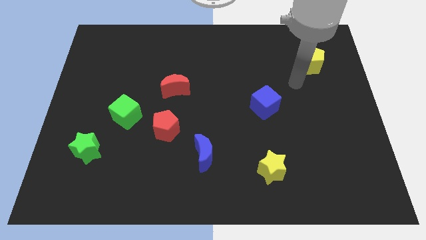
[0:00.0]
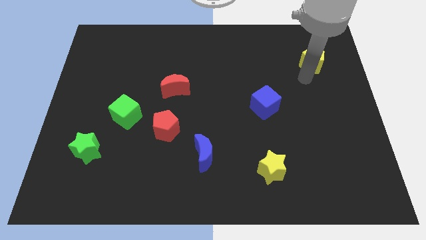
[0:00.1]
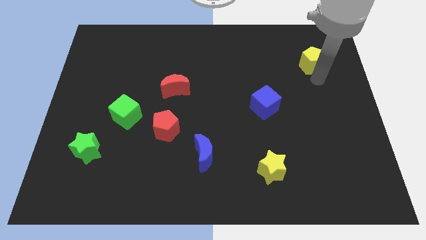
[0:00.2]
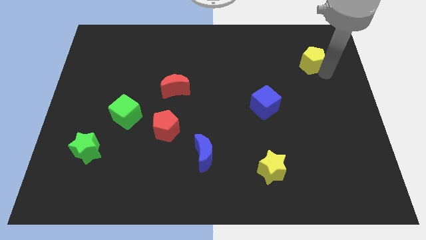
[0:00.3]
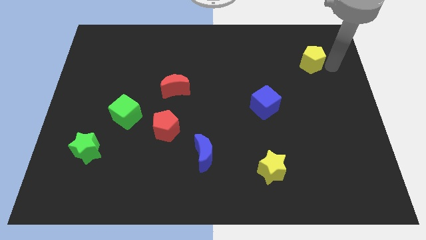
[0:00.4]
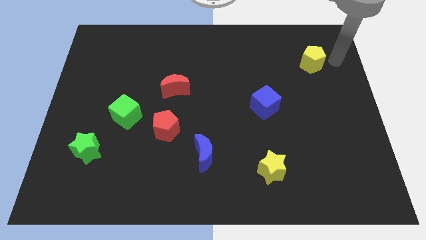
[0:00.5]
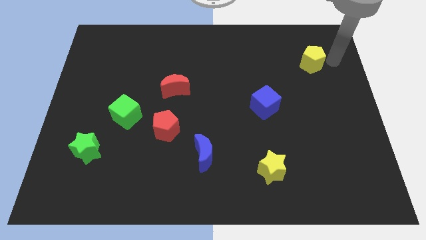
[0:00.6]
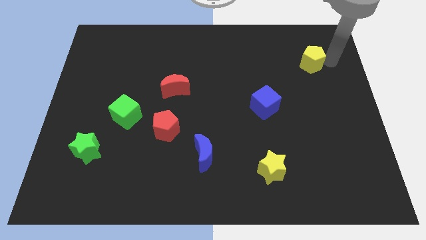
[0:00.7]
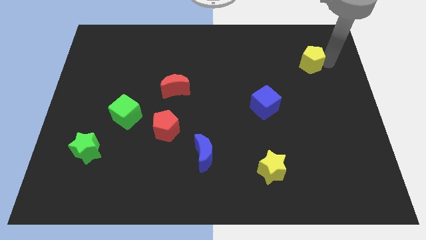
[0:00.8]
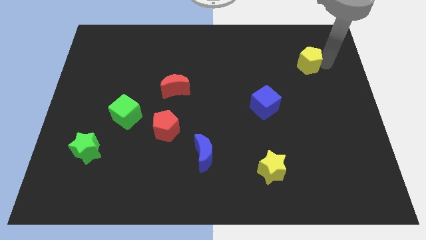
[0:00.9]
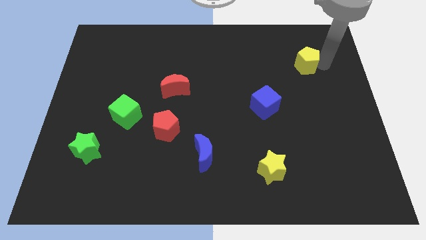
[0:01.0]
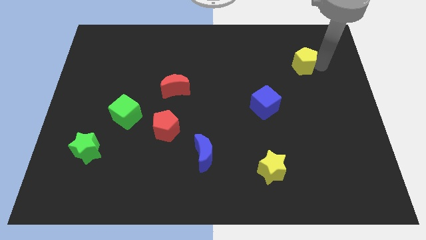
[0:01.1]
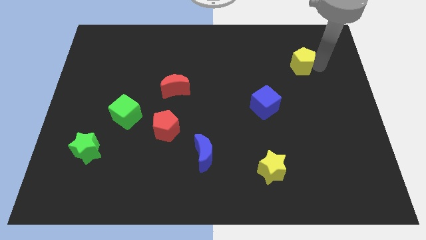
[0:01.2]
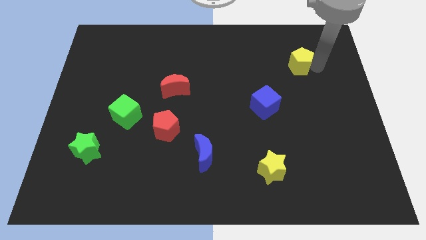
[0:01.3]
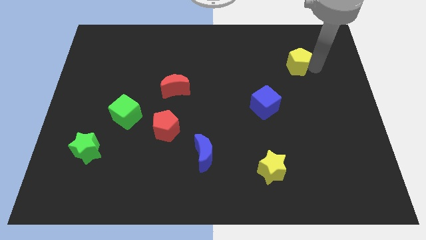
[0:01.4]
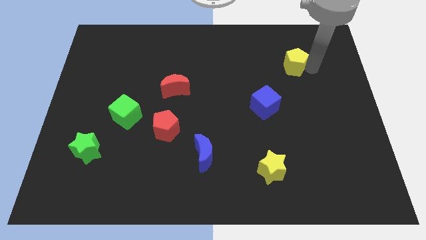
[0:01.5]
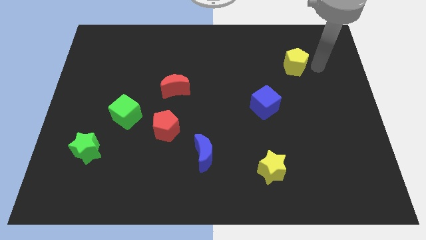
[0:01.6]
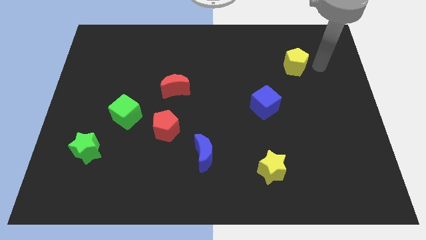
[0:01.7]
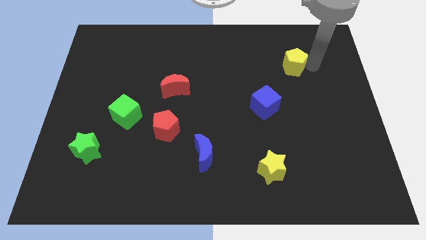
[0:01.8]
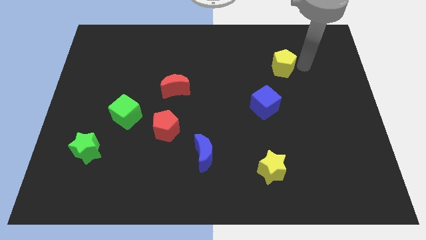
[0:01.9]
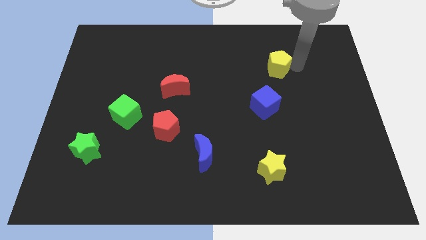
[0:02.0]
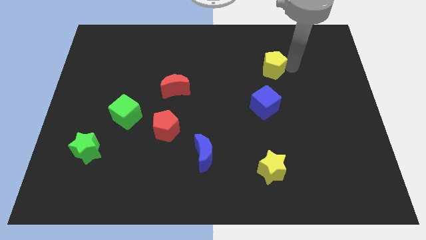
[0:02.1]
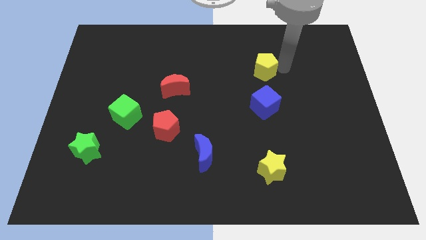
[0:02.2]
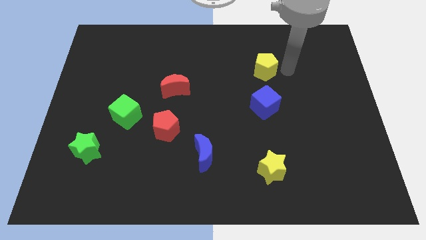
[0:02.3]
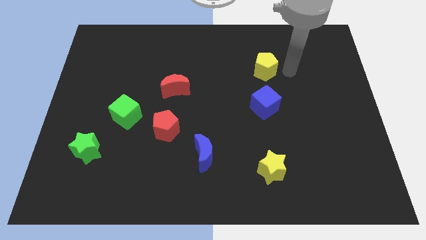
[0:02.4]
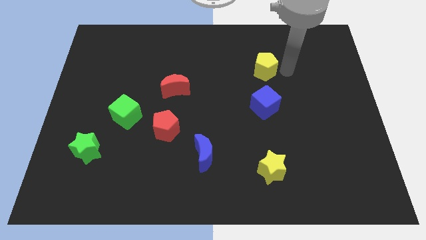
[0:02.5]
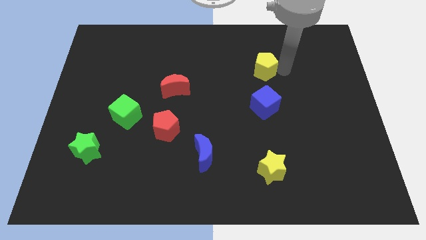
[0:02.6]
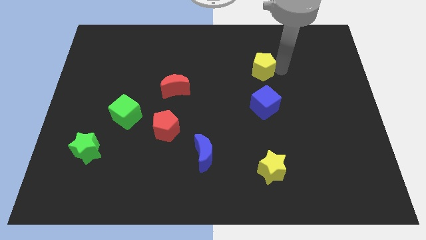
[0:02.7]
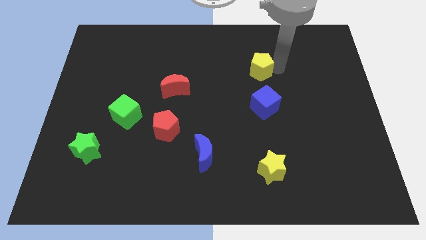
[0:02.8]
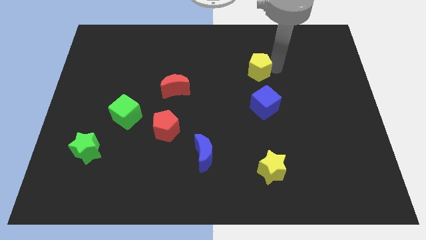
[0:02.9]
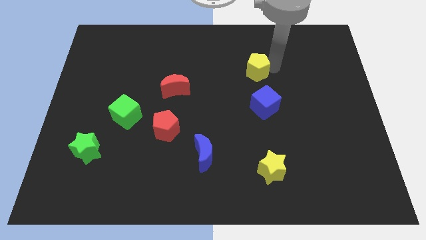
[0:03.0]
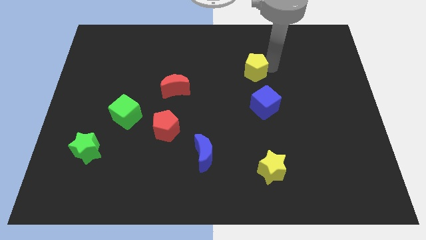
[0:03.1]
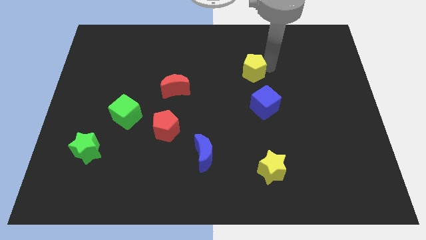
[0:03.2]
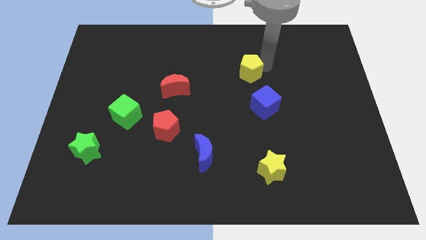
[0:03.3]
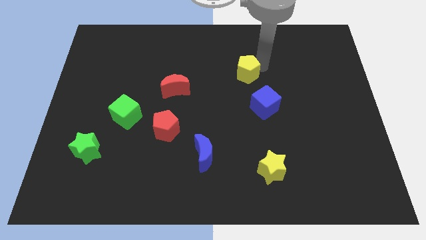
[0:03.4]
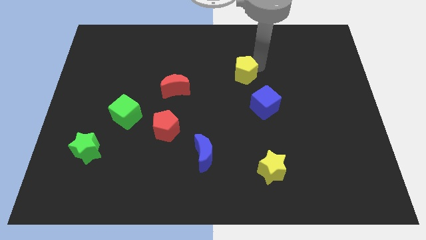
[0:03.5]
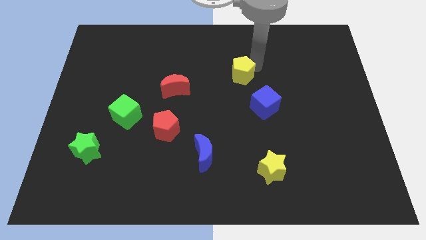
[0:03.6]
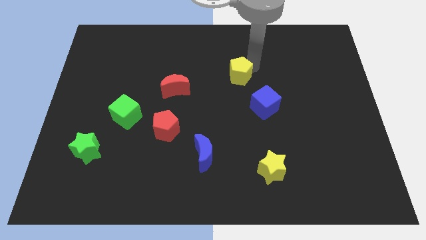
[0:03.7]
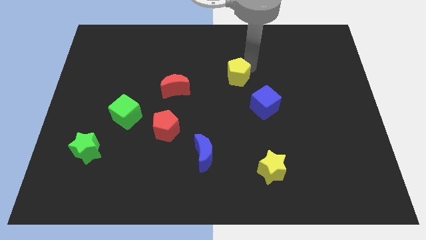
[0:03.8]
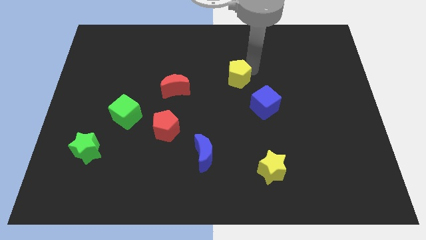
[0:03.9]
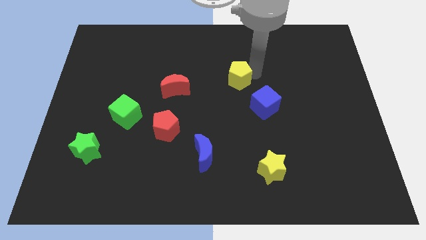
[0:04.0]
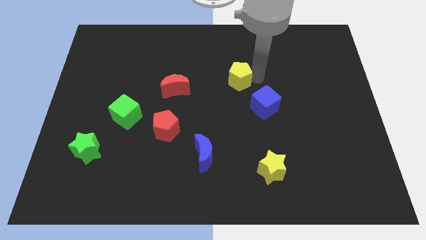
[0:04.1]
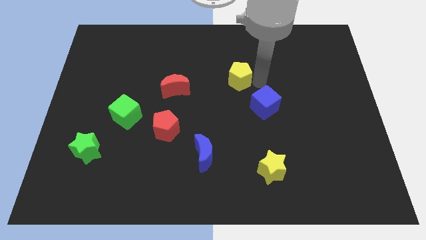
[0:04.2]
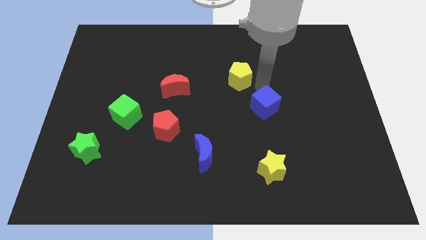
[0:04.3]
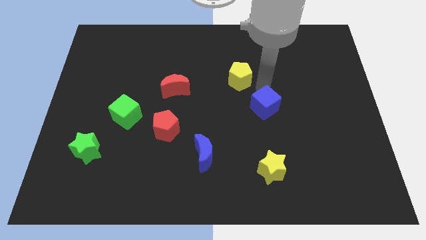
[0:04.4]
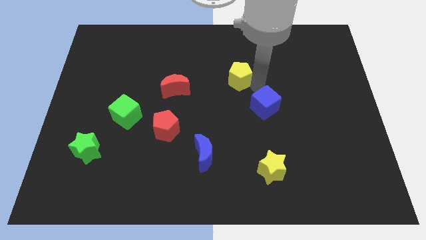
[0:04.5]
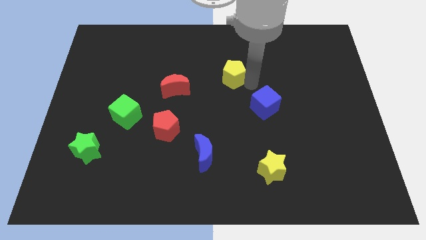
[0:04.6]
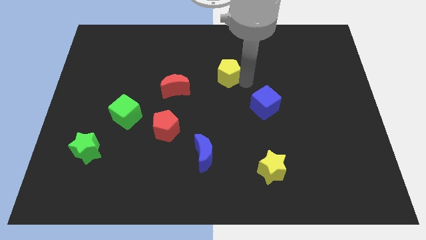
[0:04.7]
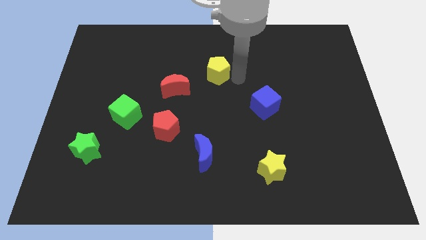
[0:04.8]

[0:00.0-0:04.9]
push the yellow pentagon to the top right side of the red moon

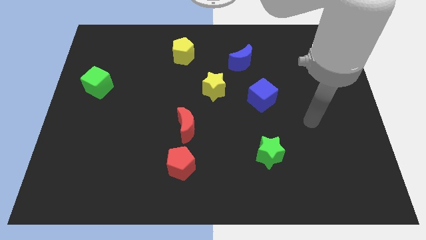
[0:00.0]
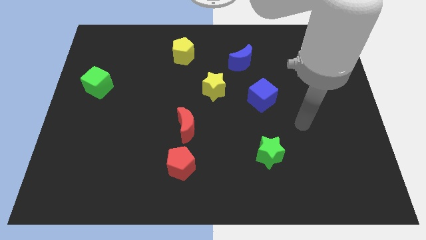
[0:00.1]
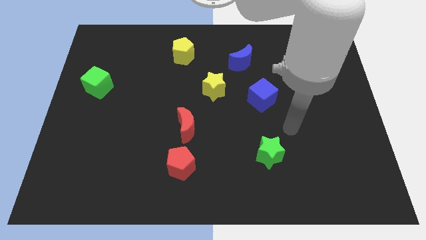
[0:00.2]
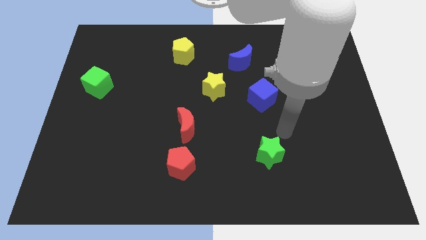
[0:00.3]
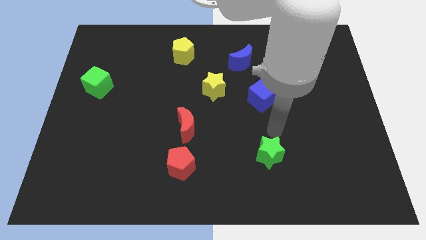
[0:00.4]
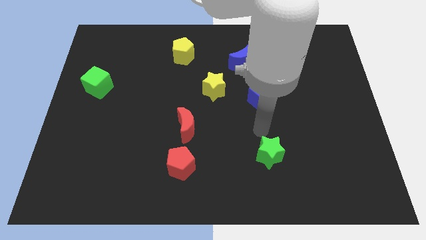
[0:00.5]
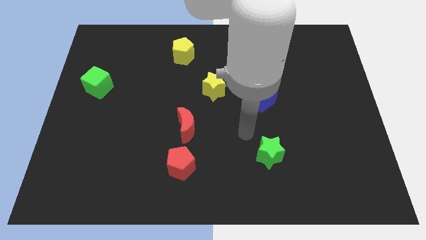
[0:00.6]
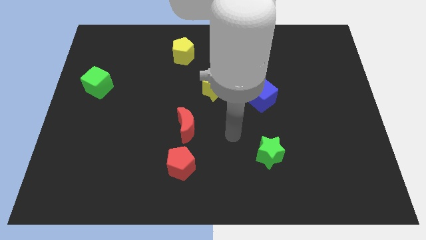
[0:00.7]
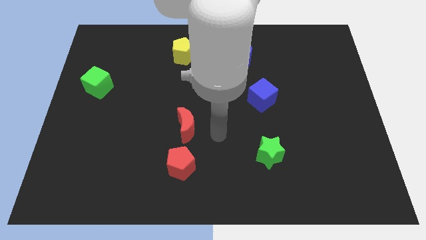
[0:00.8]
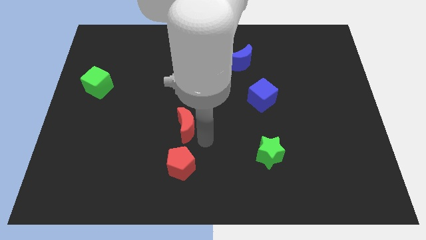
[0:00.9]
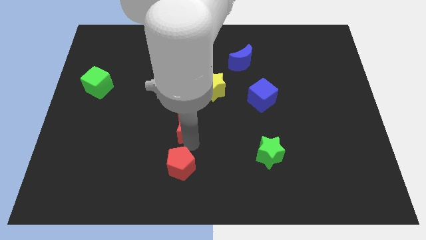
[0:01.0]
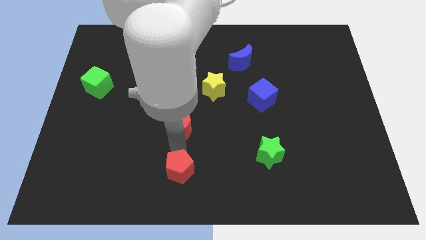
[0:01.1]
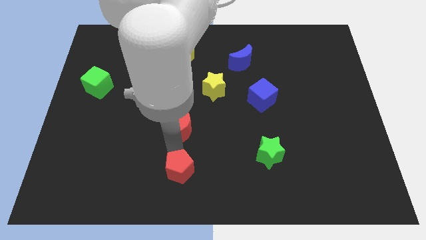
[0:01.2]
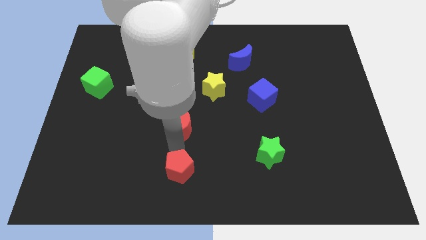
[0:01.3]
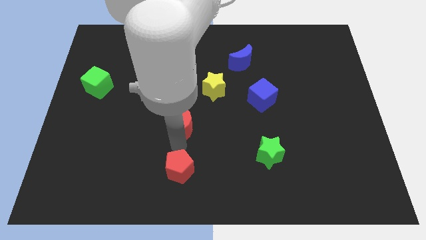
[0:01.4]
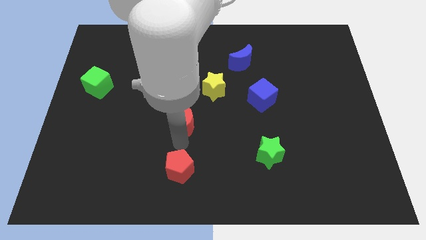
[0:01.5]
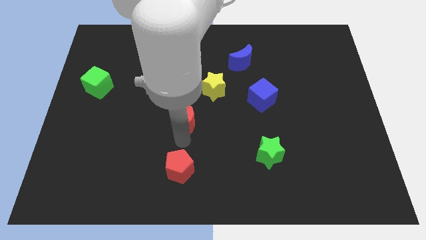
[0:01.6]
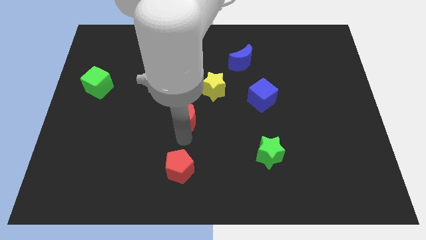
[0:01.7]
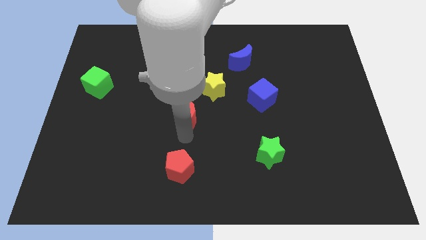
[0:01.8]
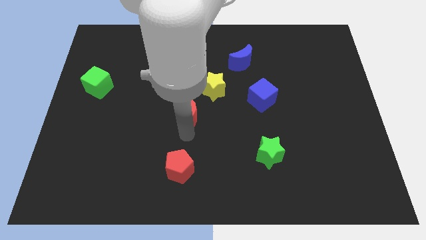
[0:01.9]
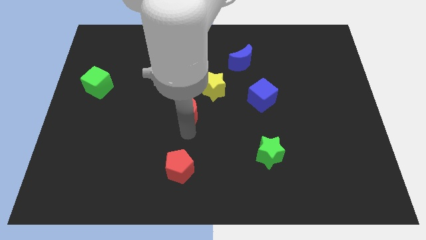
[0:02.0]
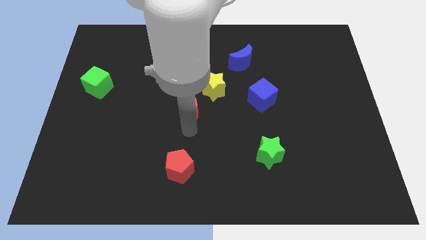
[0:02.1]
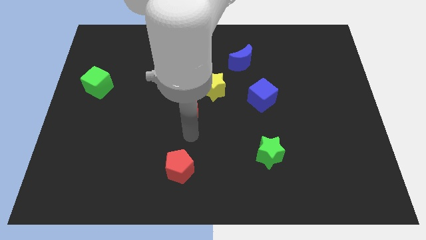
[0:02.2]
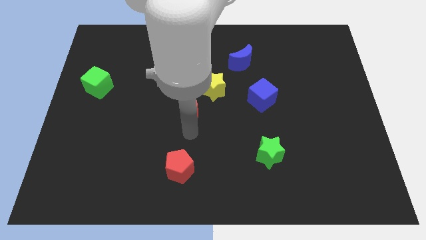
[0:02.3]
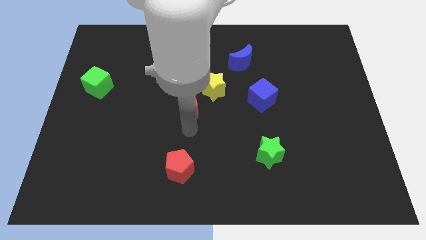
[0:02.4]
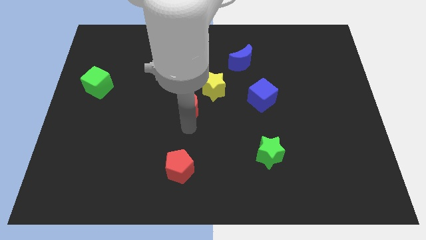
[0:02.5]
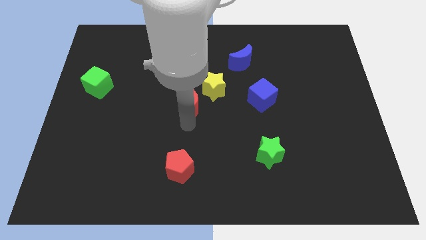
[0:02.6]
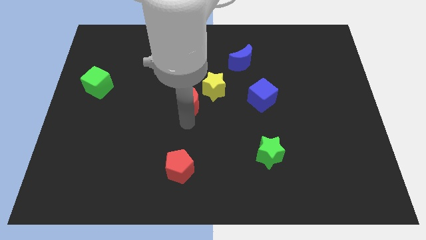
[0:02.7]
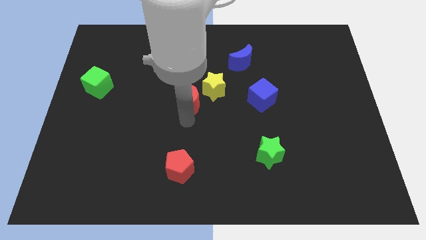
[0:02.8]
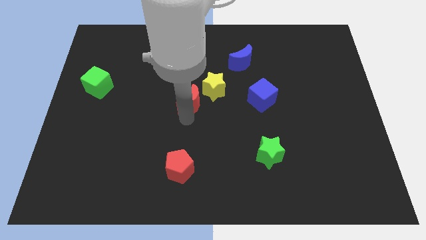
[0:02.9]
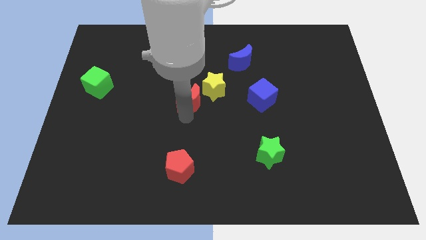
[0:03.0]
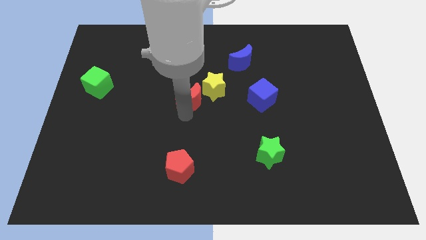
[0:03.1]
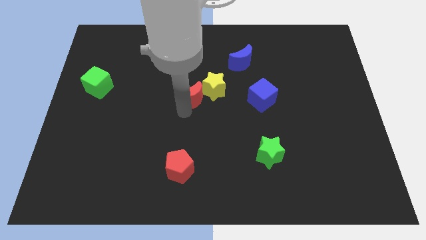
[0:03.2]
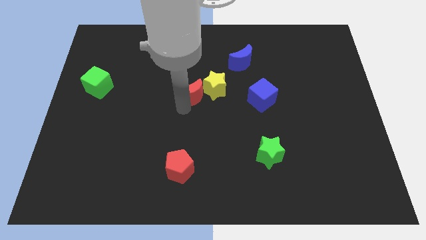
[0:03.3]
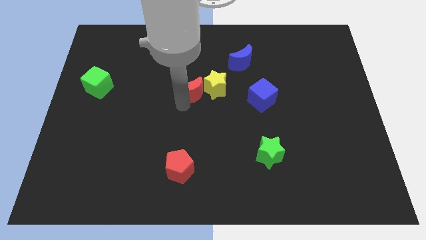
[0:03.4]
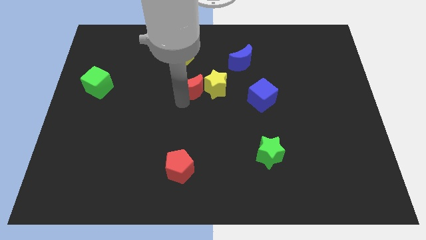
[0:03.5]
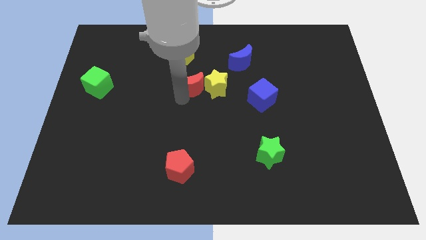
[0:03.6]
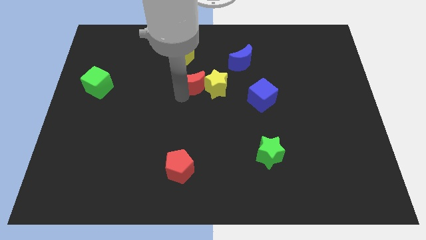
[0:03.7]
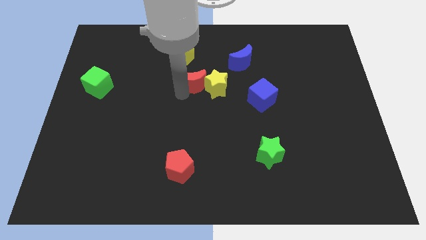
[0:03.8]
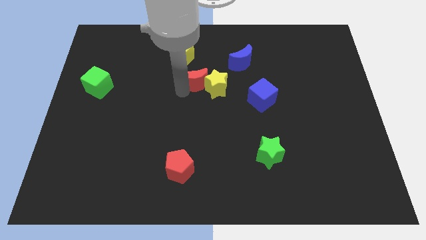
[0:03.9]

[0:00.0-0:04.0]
slide the red moon to the bottom right side of the yellow pentagon
